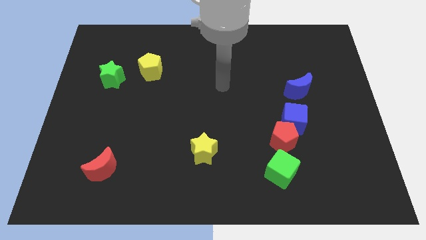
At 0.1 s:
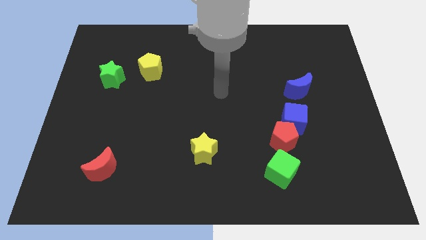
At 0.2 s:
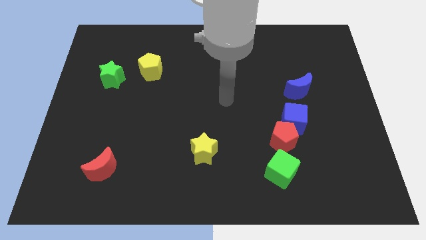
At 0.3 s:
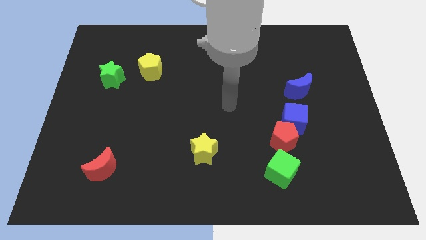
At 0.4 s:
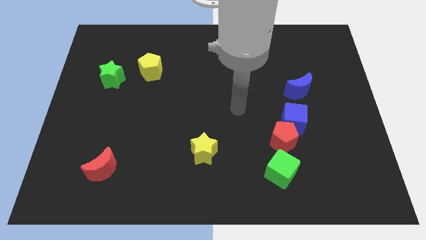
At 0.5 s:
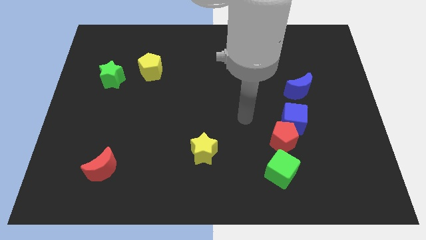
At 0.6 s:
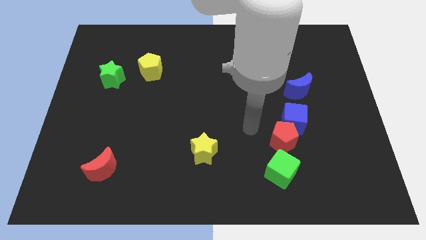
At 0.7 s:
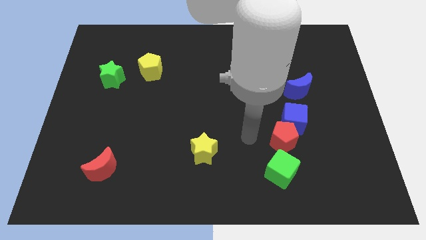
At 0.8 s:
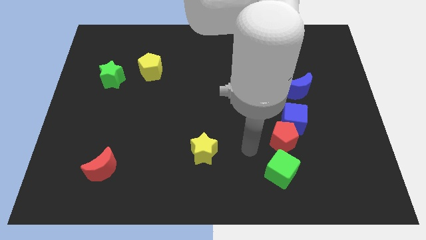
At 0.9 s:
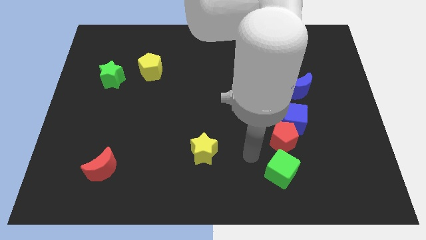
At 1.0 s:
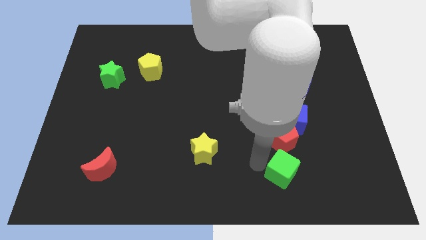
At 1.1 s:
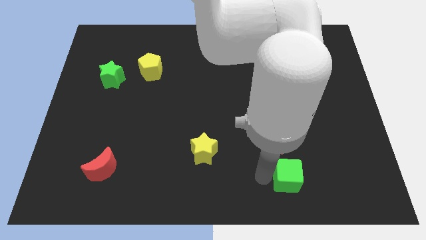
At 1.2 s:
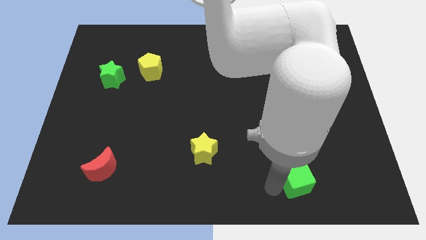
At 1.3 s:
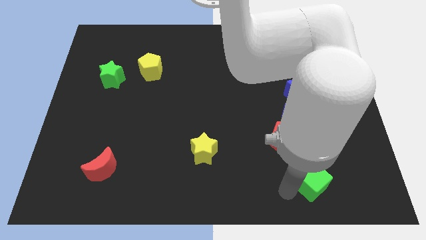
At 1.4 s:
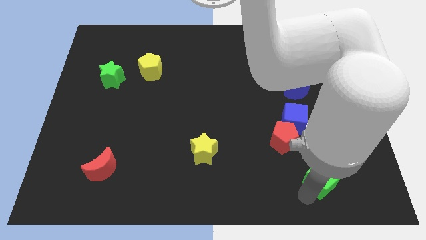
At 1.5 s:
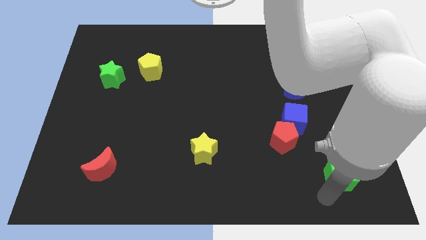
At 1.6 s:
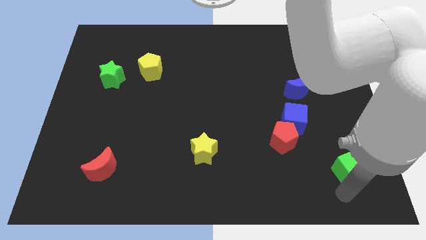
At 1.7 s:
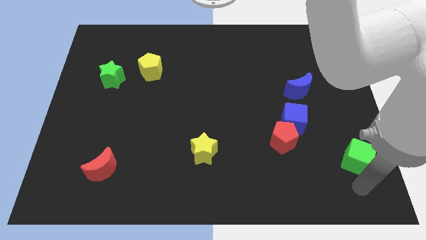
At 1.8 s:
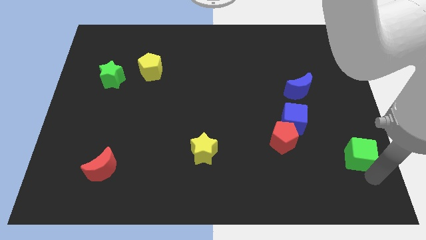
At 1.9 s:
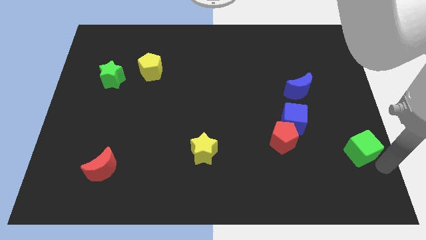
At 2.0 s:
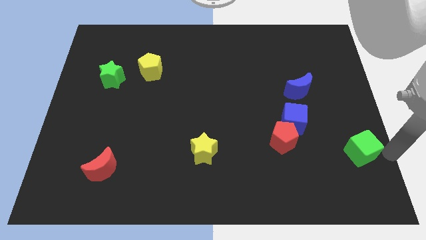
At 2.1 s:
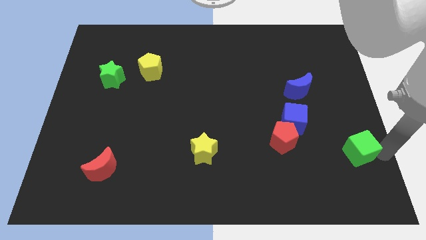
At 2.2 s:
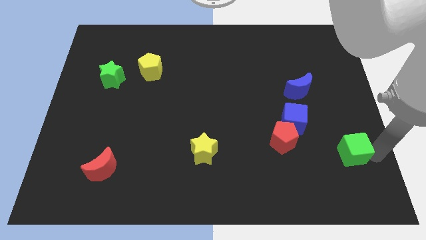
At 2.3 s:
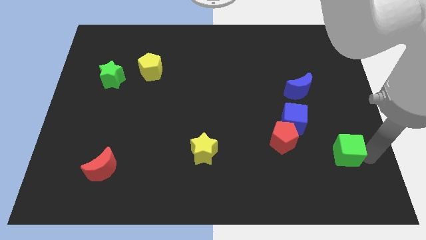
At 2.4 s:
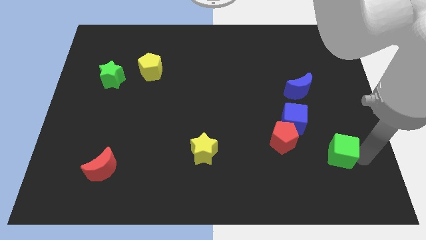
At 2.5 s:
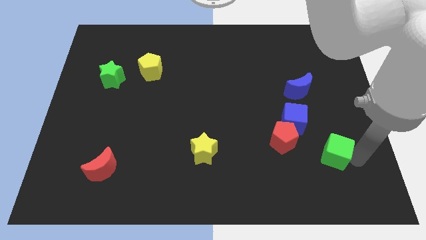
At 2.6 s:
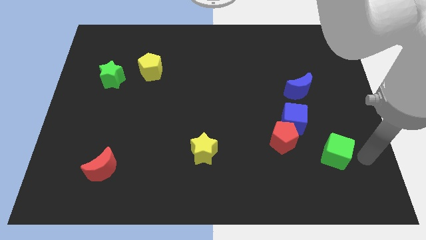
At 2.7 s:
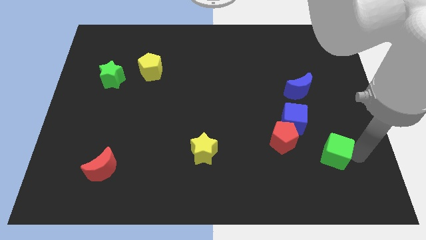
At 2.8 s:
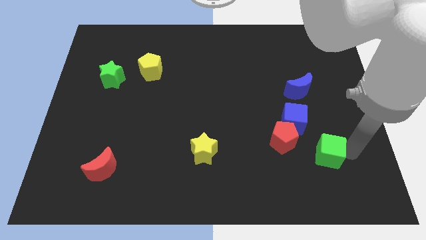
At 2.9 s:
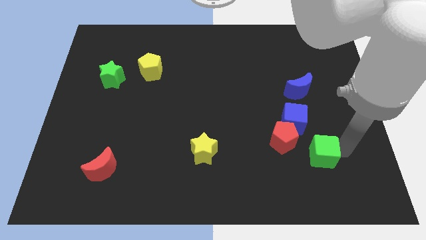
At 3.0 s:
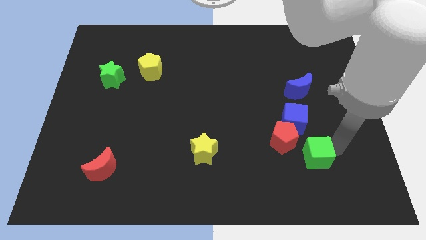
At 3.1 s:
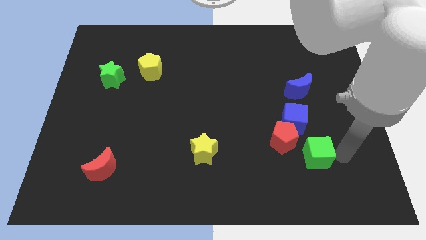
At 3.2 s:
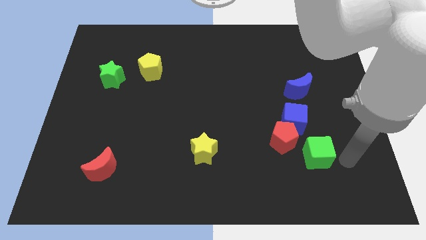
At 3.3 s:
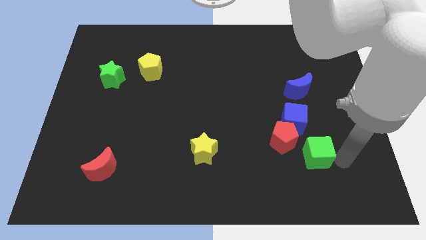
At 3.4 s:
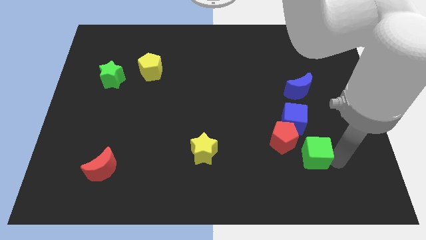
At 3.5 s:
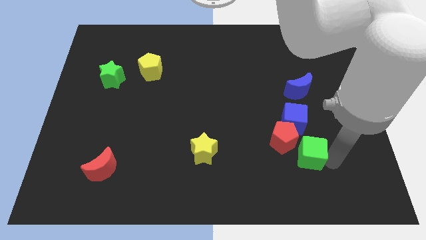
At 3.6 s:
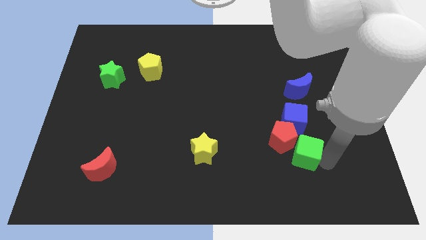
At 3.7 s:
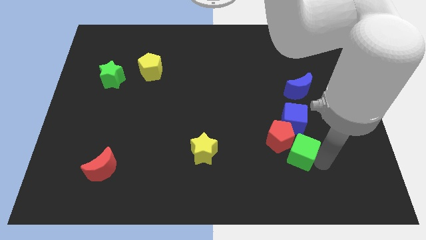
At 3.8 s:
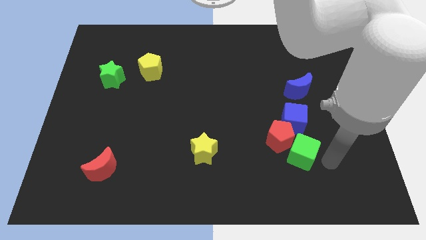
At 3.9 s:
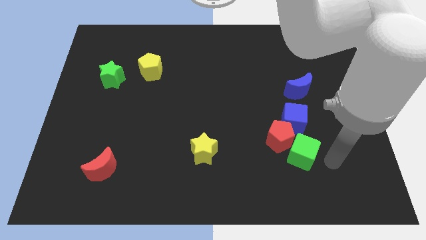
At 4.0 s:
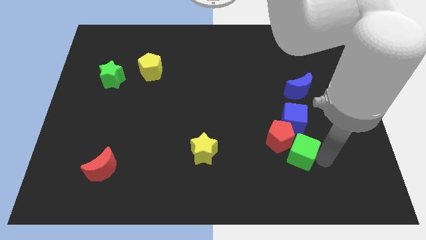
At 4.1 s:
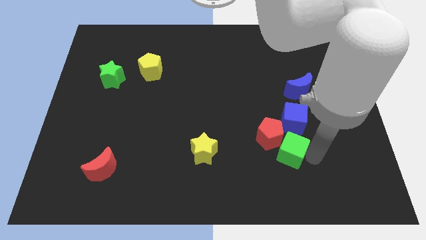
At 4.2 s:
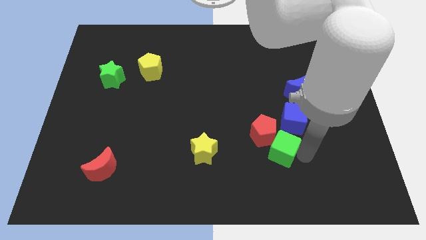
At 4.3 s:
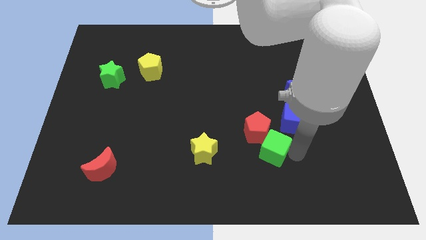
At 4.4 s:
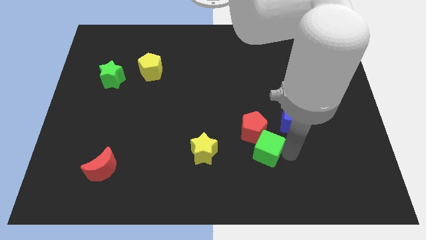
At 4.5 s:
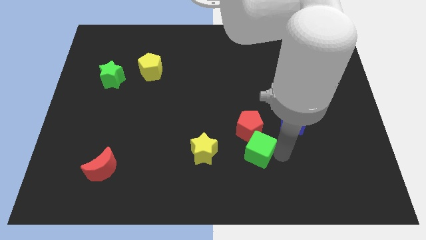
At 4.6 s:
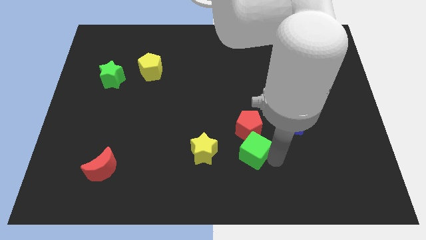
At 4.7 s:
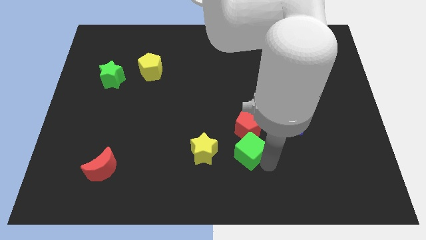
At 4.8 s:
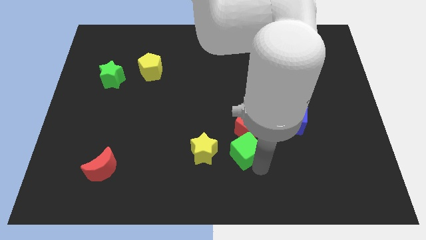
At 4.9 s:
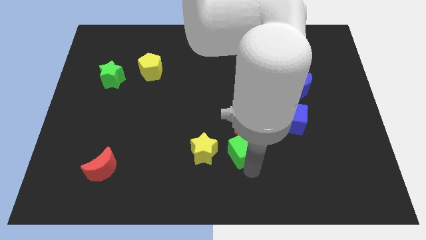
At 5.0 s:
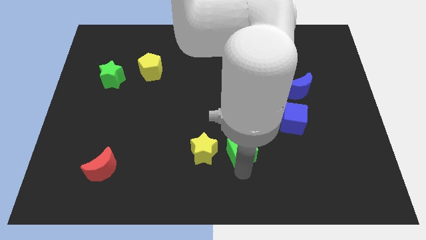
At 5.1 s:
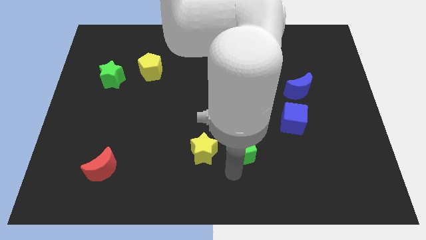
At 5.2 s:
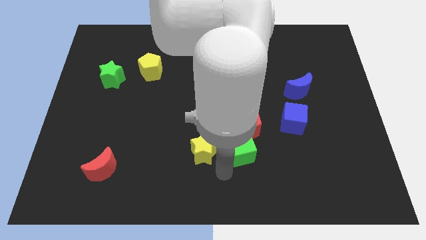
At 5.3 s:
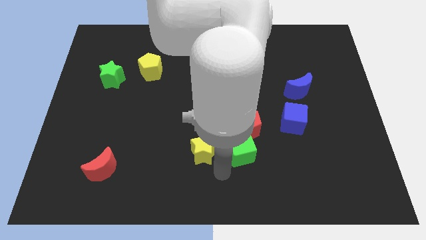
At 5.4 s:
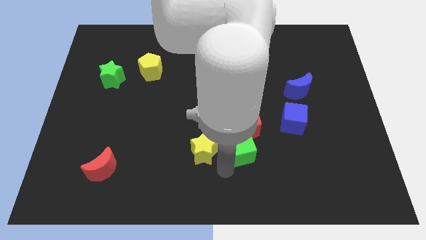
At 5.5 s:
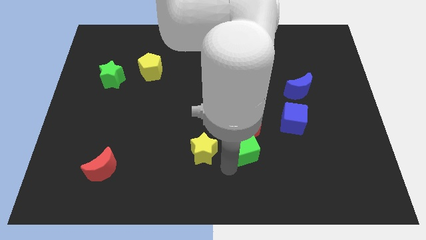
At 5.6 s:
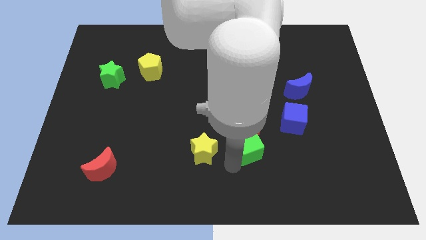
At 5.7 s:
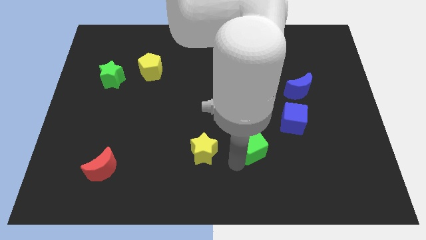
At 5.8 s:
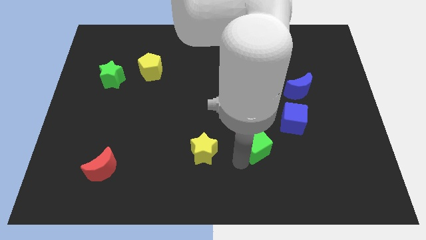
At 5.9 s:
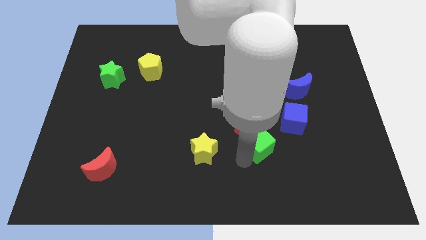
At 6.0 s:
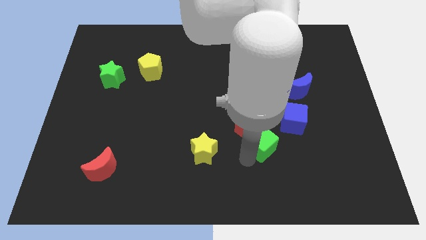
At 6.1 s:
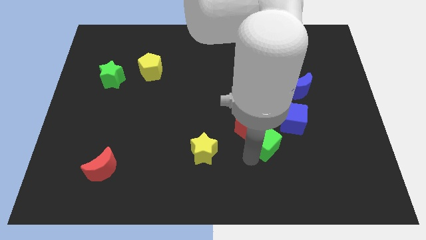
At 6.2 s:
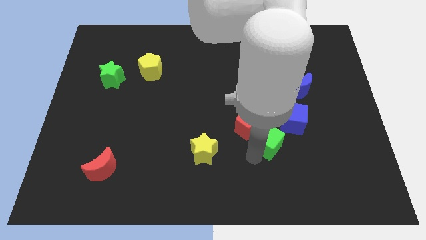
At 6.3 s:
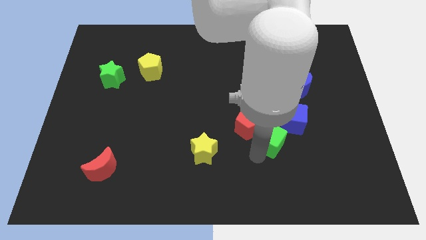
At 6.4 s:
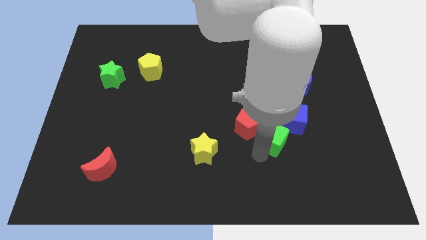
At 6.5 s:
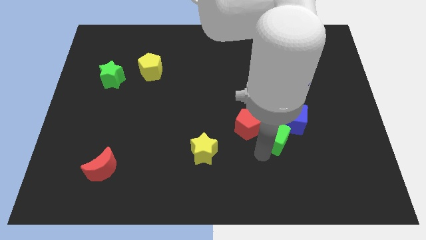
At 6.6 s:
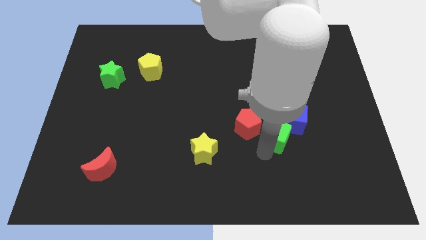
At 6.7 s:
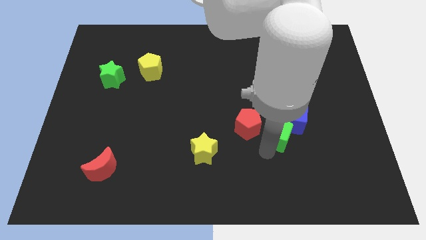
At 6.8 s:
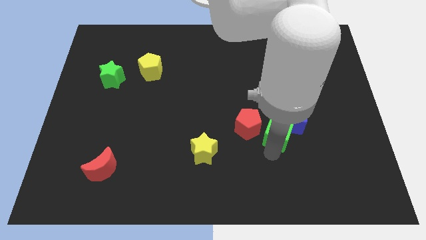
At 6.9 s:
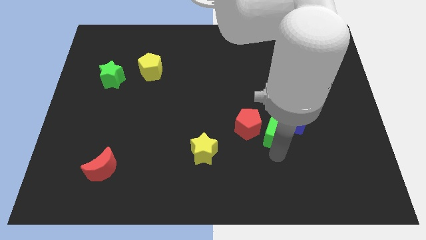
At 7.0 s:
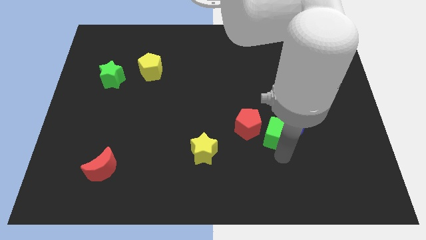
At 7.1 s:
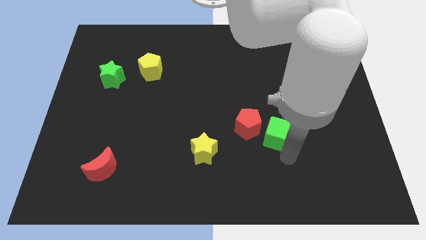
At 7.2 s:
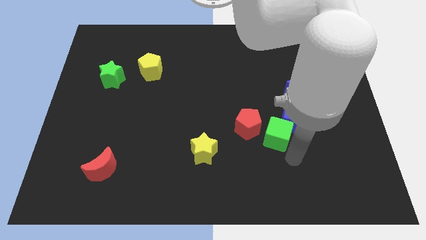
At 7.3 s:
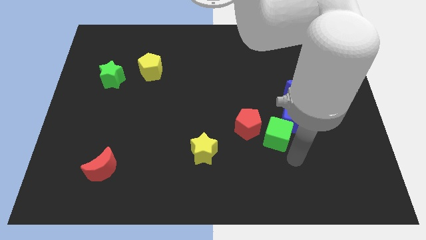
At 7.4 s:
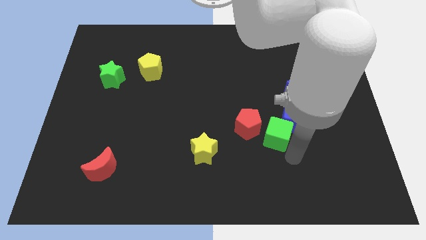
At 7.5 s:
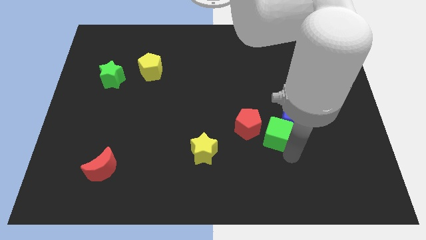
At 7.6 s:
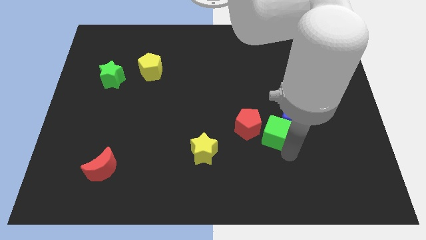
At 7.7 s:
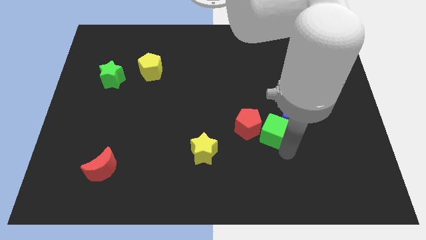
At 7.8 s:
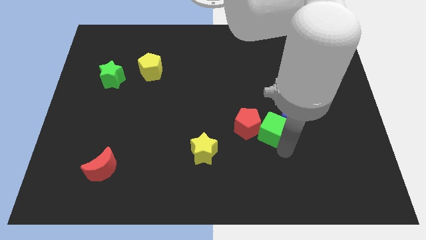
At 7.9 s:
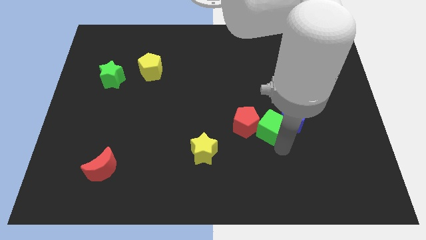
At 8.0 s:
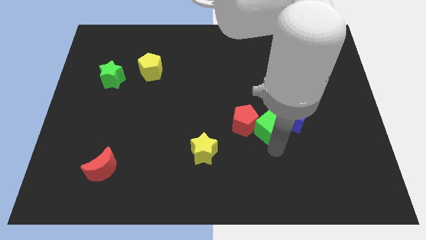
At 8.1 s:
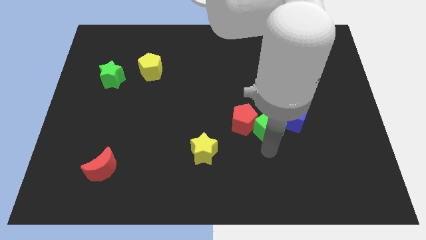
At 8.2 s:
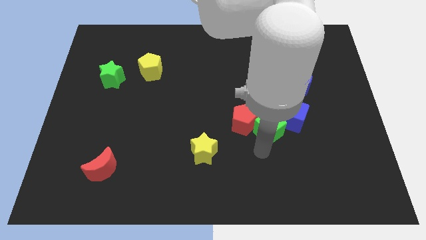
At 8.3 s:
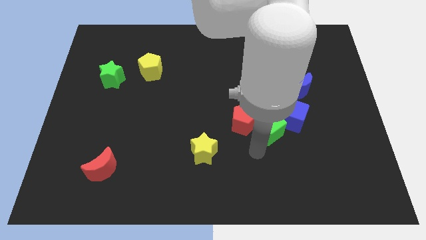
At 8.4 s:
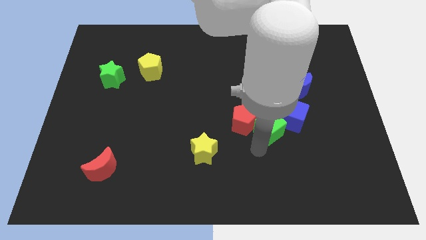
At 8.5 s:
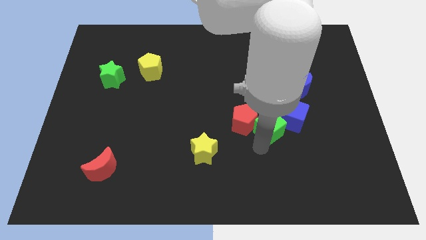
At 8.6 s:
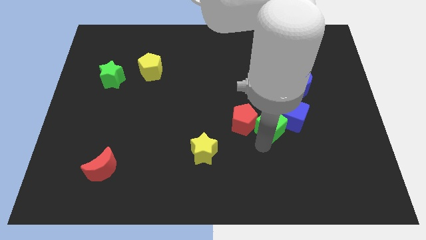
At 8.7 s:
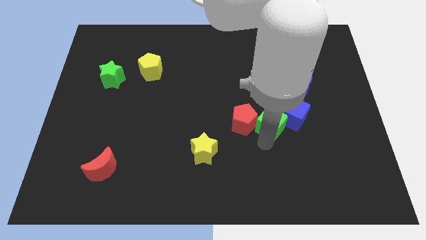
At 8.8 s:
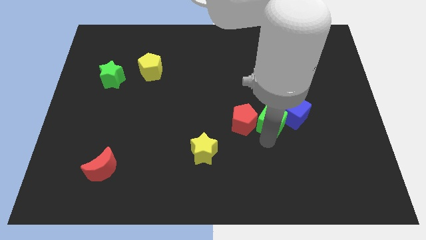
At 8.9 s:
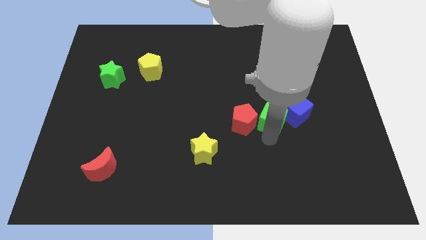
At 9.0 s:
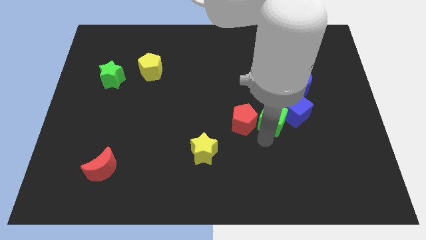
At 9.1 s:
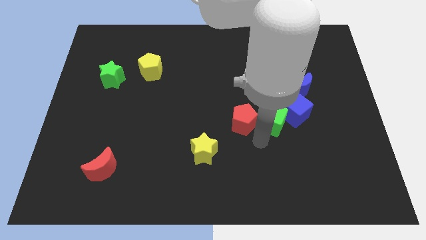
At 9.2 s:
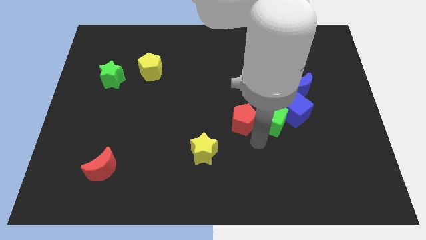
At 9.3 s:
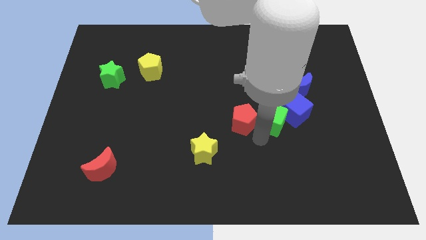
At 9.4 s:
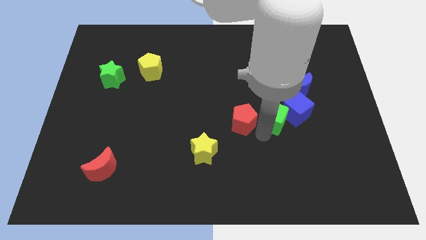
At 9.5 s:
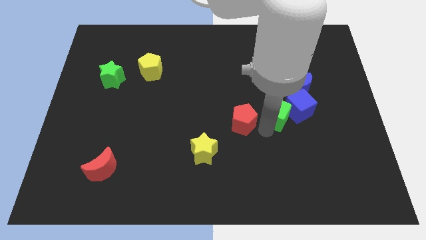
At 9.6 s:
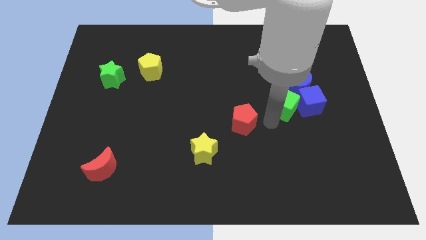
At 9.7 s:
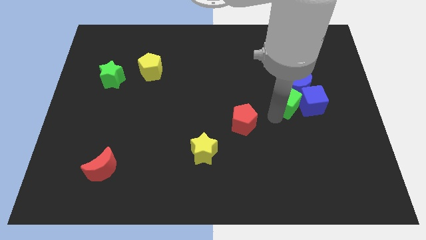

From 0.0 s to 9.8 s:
put the green cube to the blue moon
